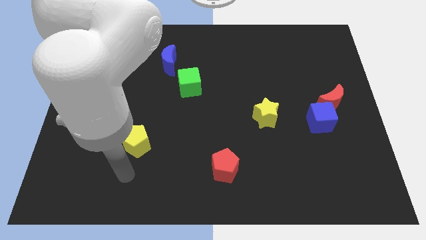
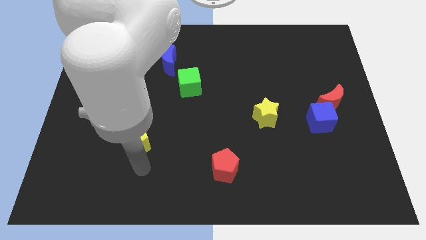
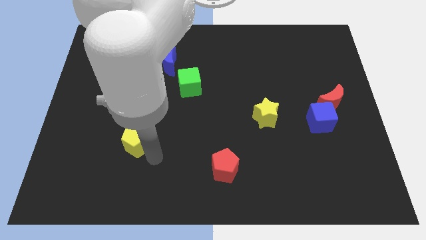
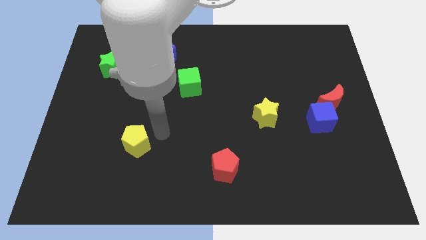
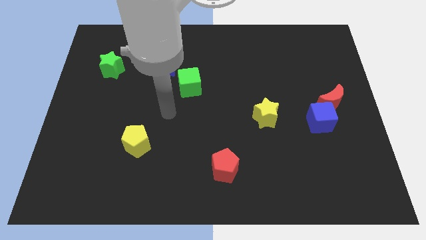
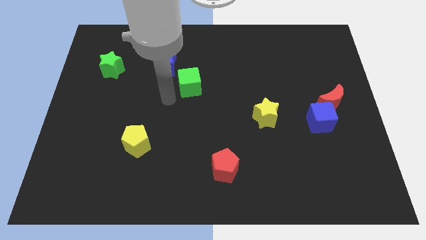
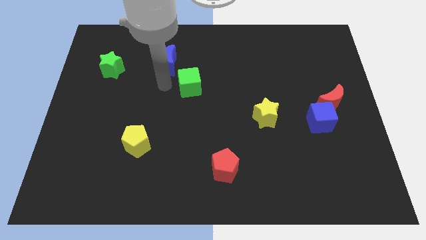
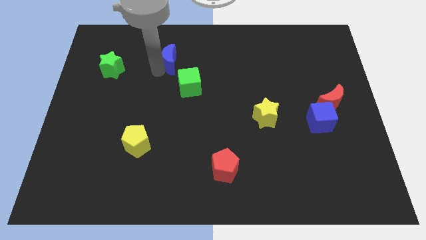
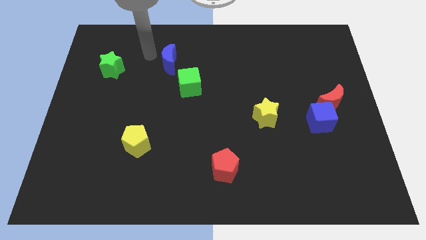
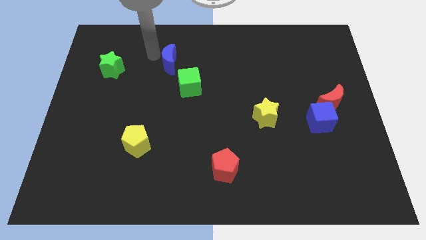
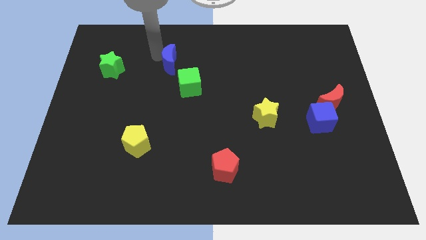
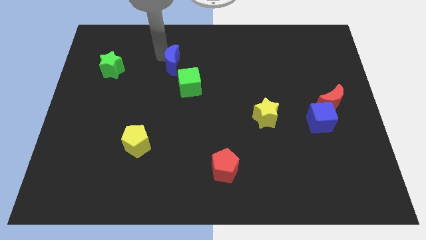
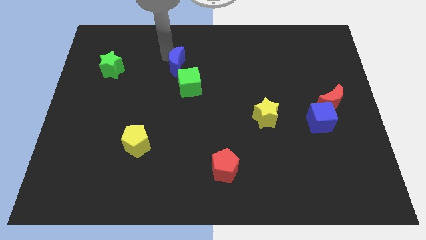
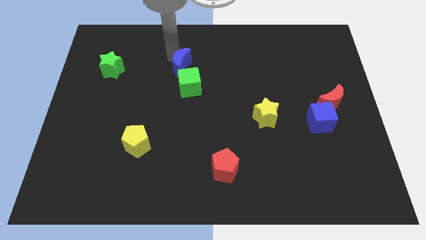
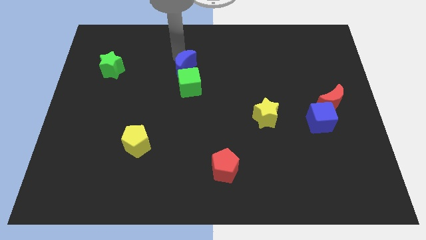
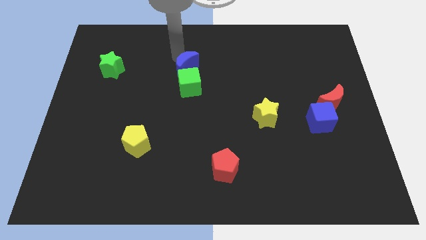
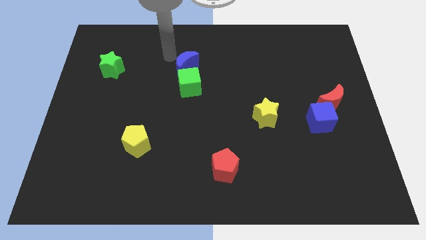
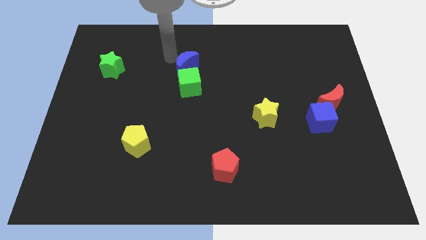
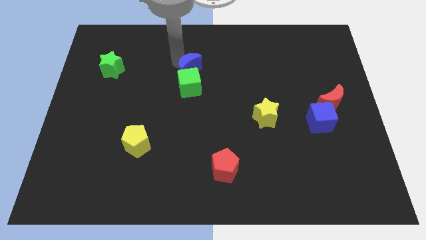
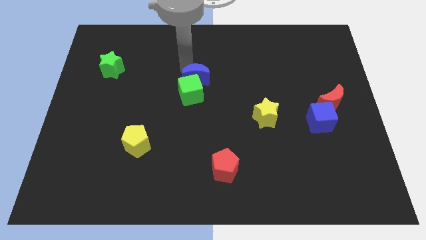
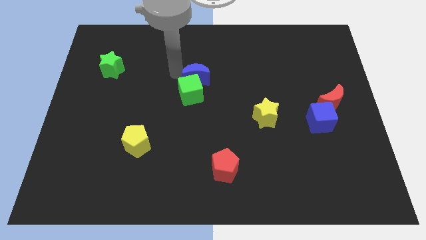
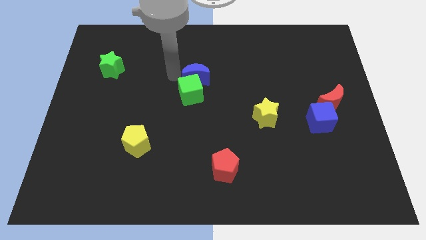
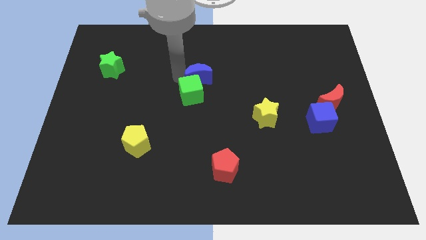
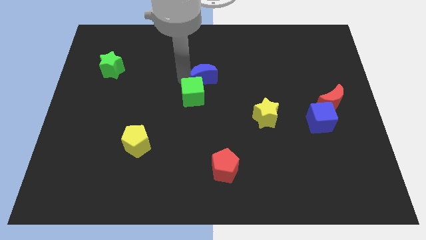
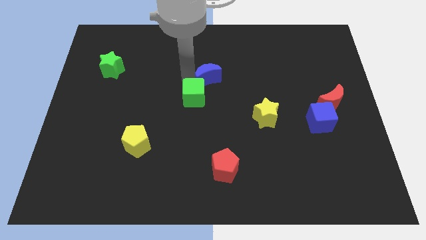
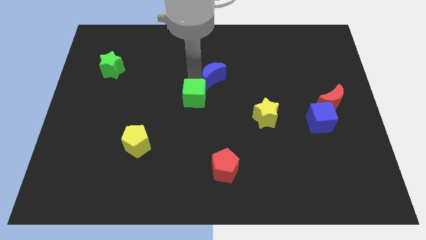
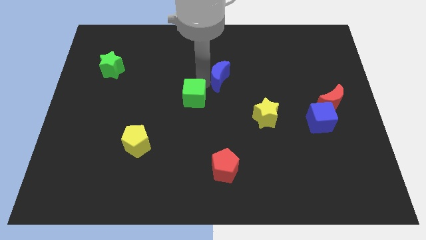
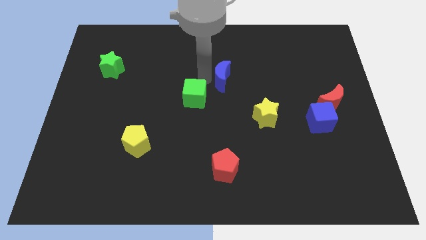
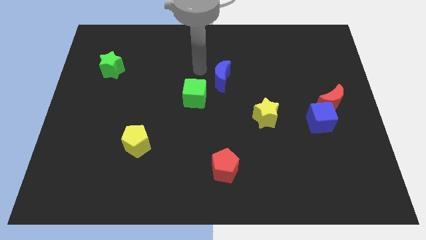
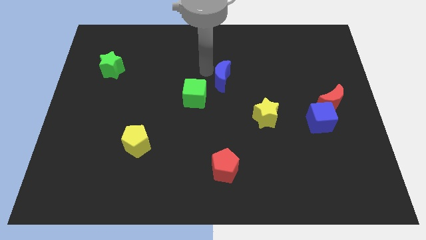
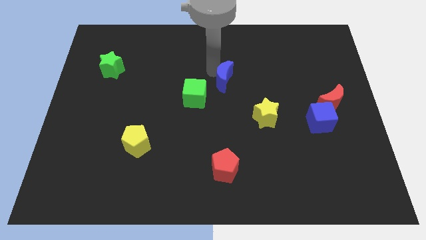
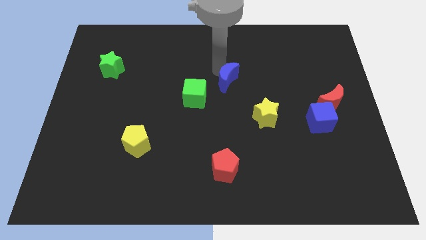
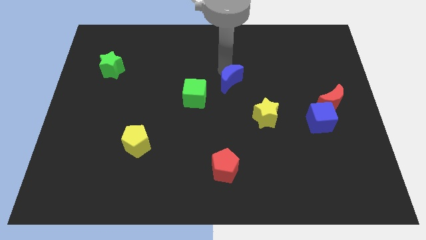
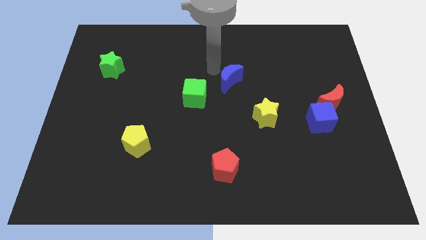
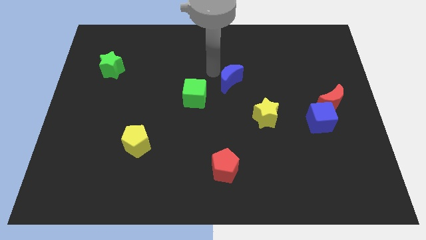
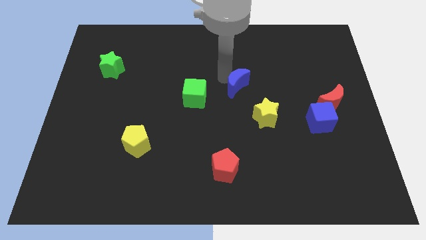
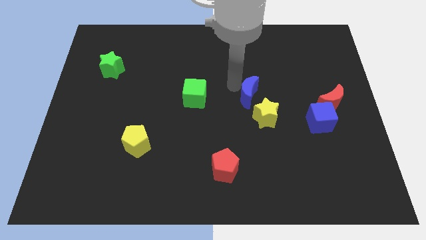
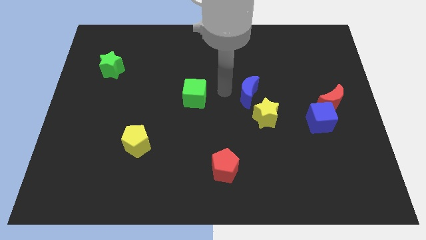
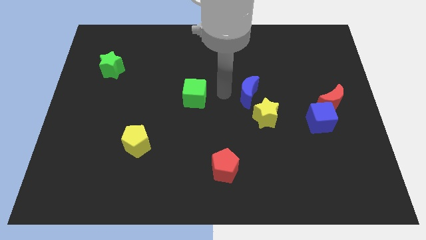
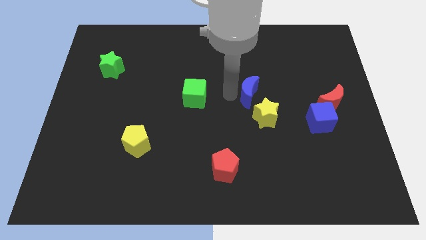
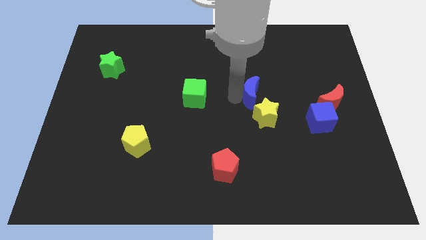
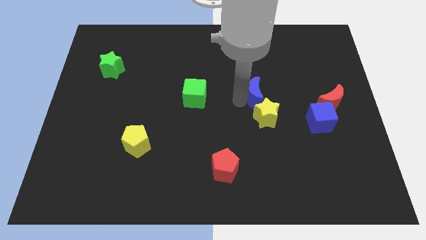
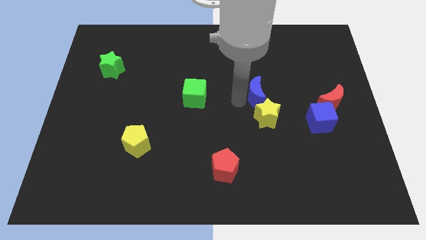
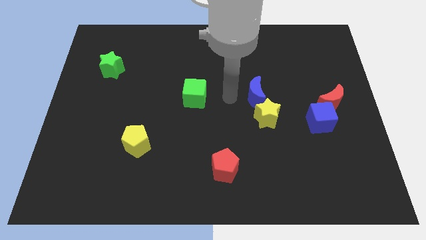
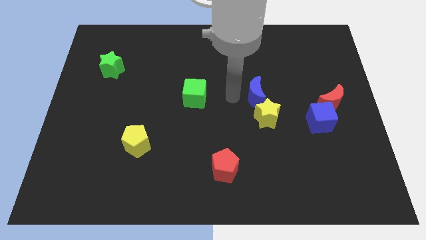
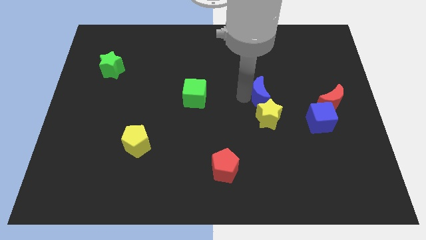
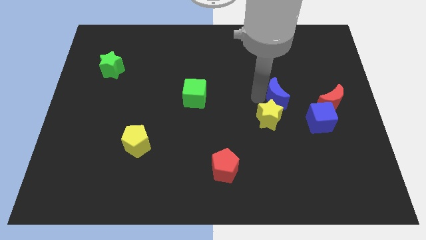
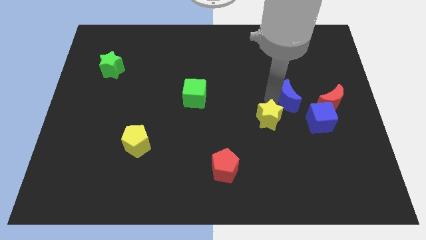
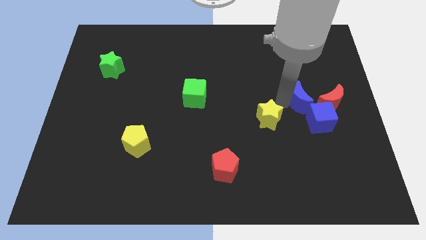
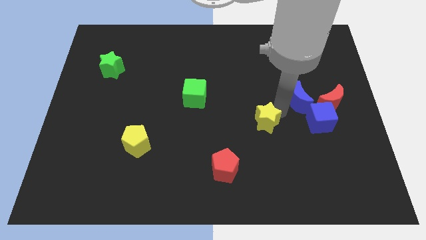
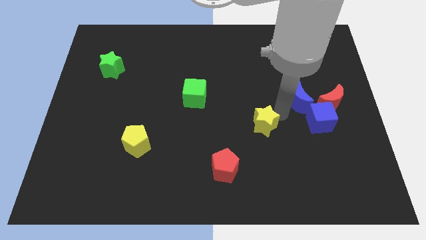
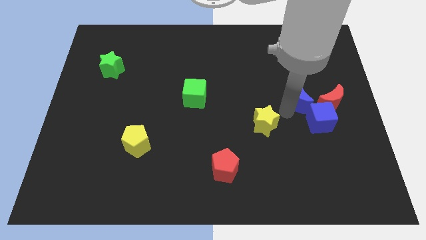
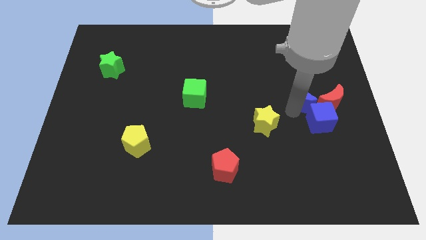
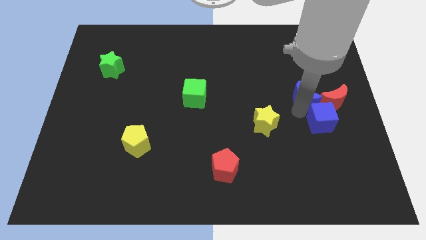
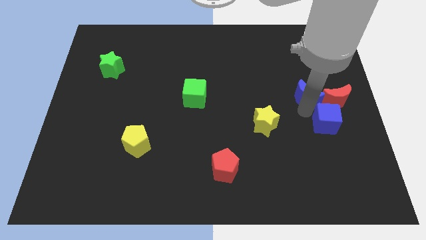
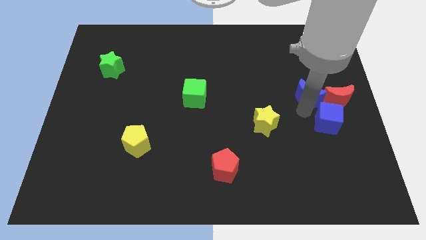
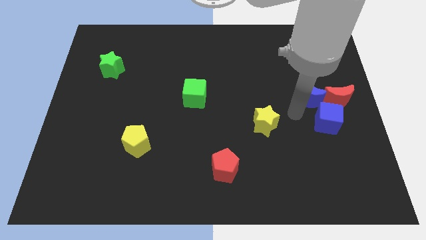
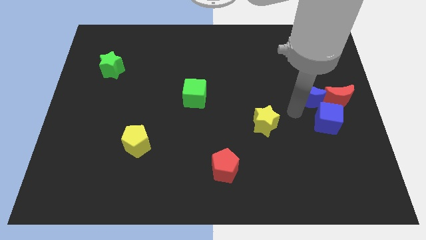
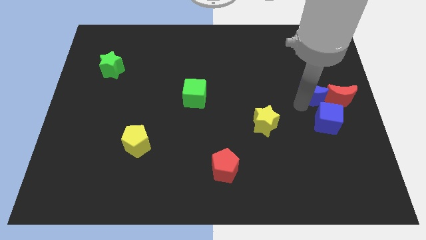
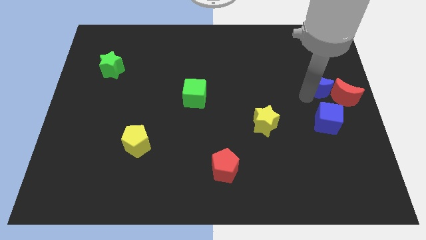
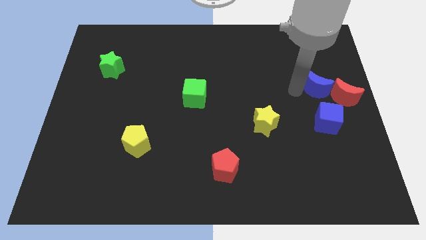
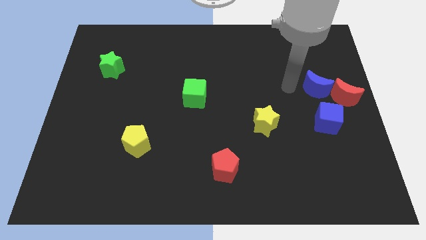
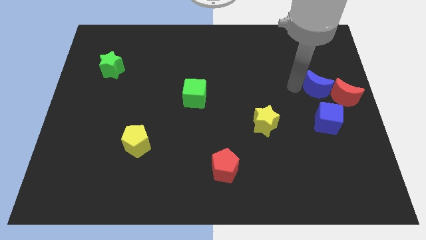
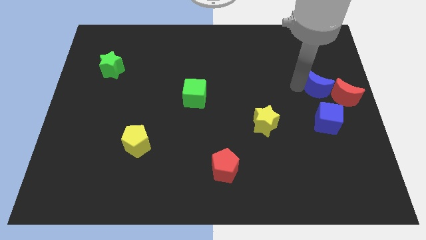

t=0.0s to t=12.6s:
slide the blue moon to the right side

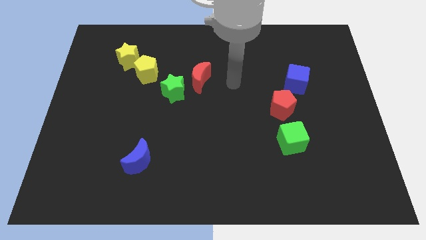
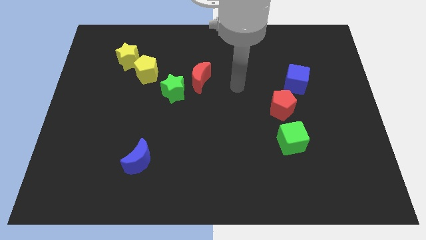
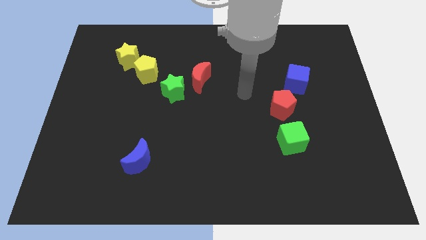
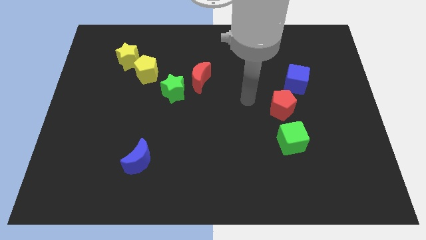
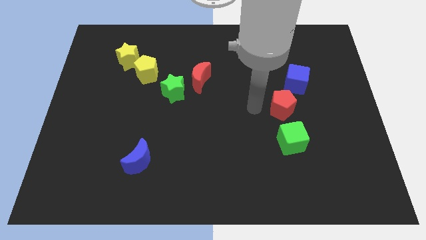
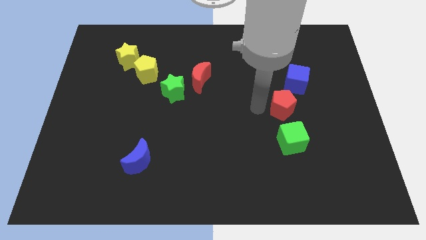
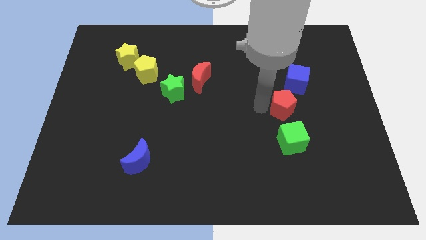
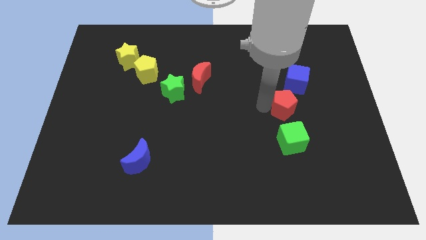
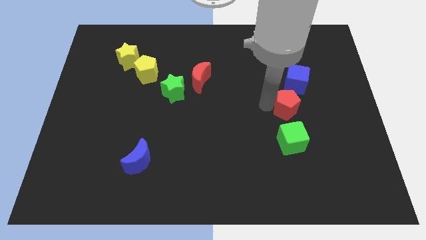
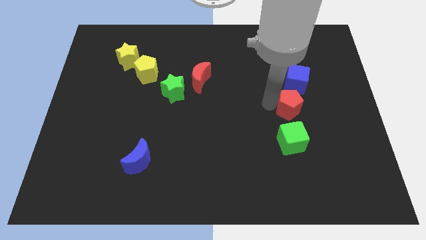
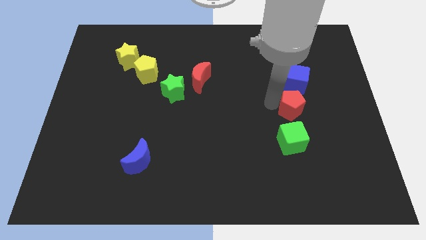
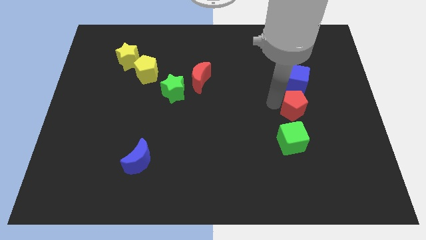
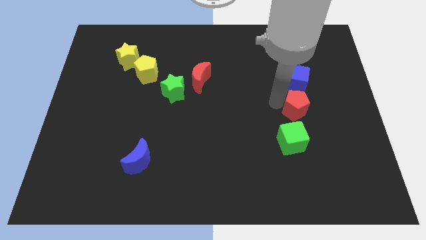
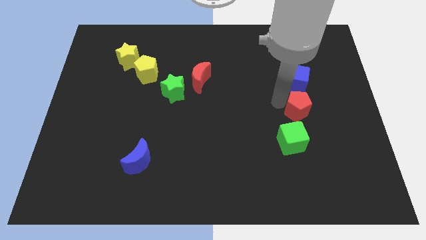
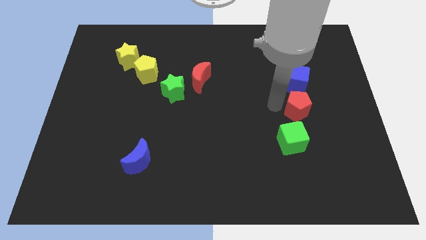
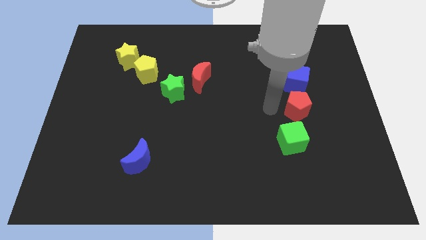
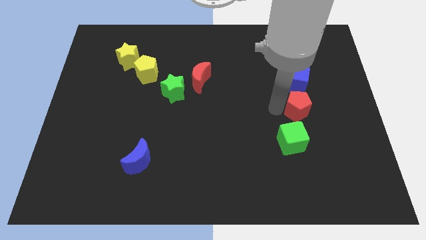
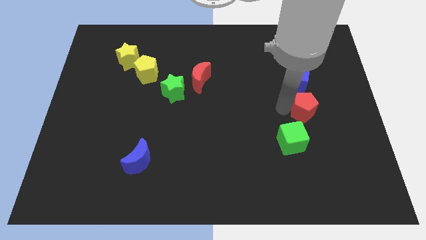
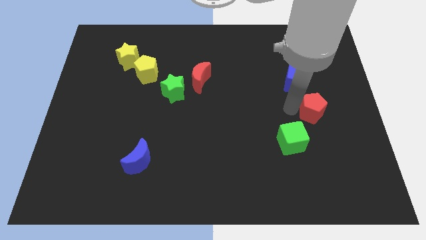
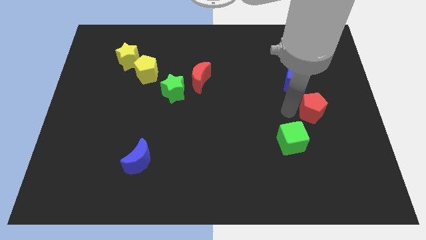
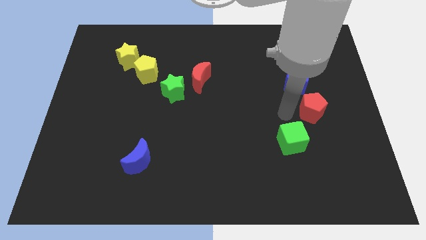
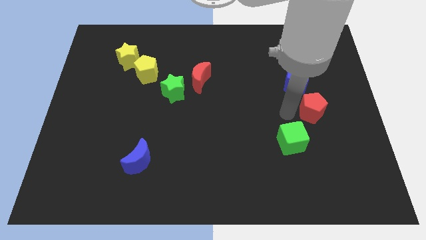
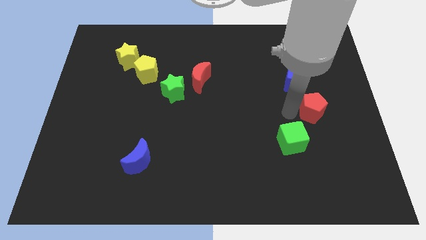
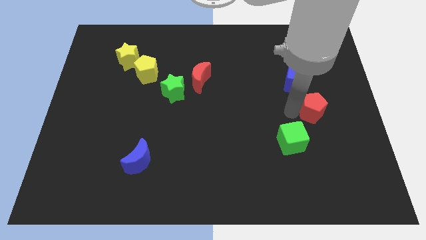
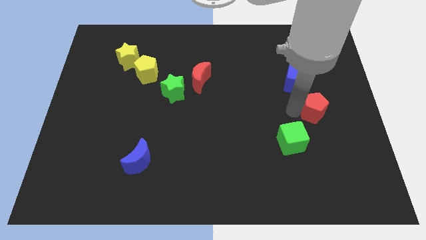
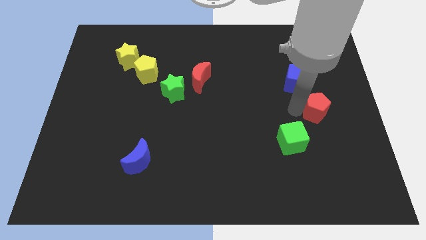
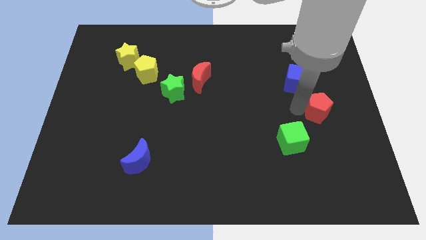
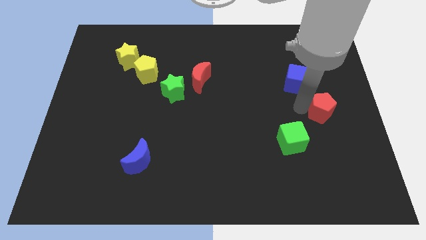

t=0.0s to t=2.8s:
slide the red pentagon to the center right
